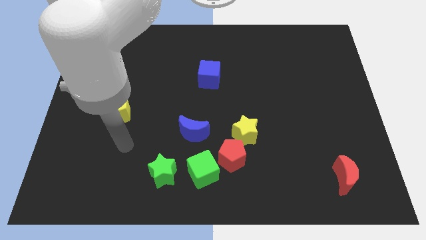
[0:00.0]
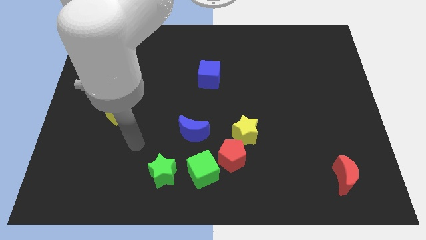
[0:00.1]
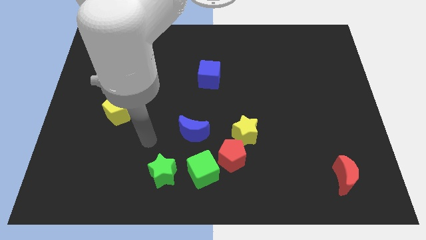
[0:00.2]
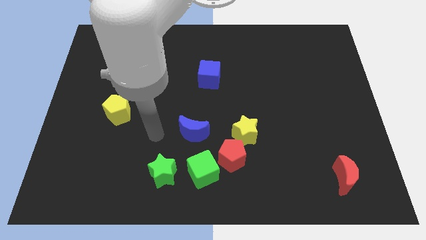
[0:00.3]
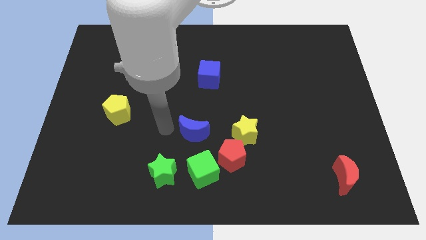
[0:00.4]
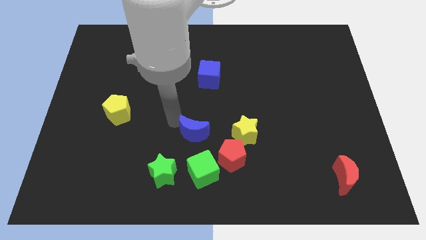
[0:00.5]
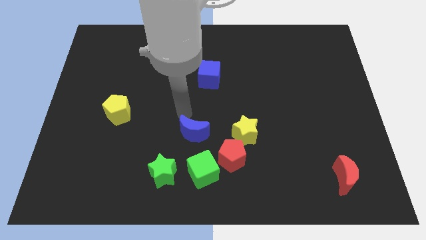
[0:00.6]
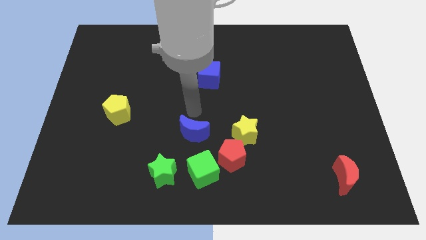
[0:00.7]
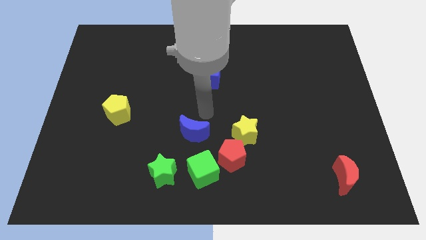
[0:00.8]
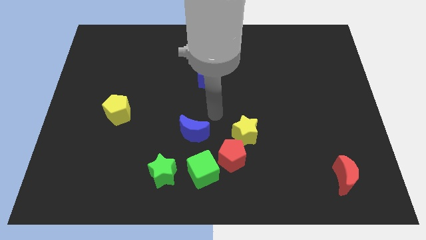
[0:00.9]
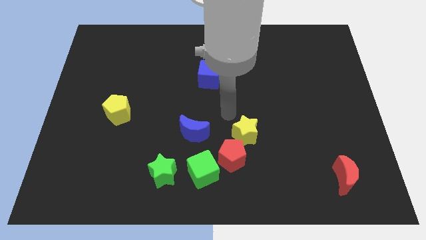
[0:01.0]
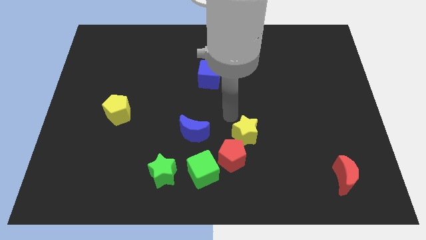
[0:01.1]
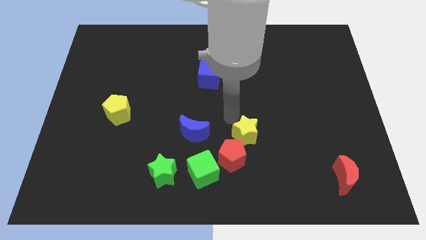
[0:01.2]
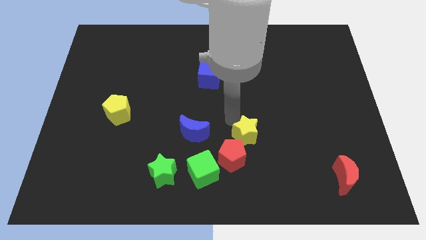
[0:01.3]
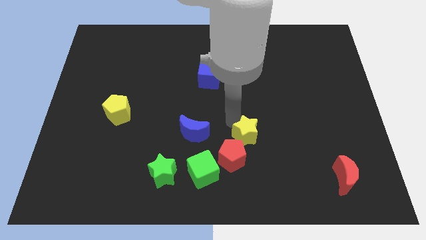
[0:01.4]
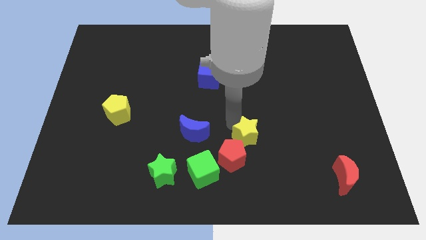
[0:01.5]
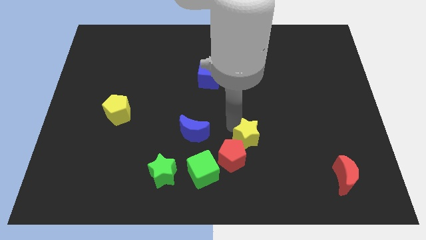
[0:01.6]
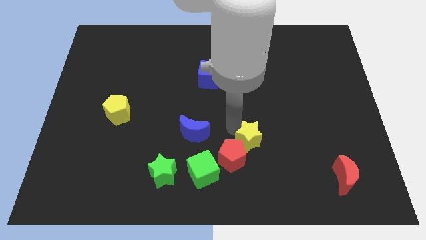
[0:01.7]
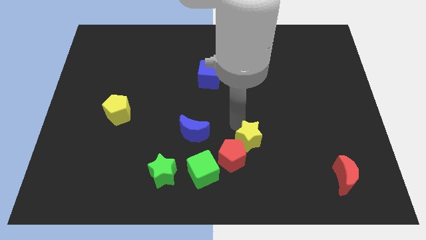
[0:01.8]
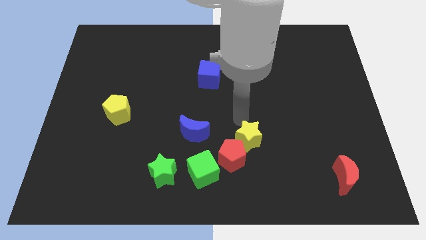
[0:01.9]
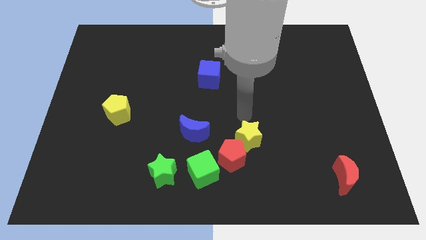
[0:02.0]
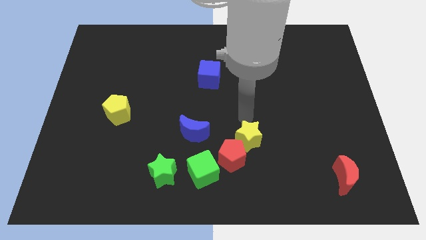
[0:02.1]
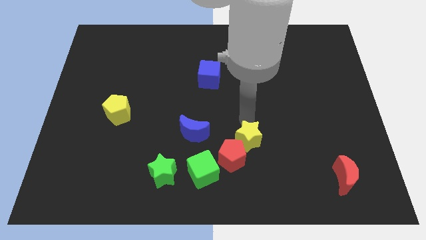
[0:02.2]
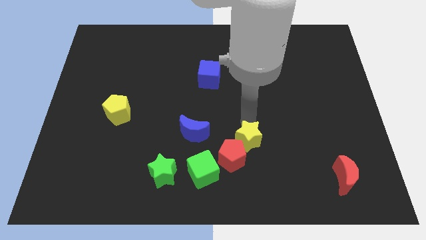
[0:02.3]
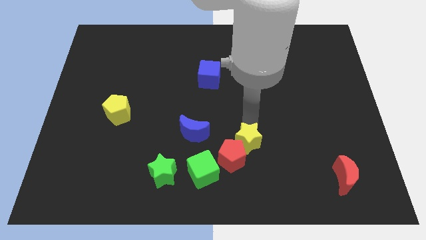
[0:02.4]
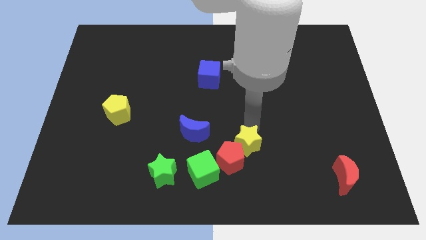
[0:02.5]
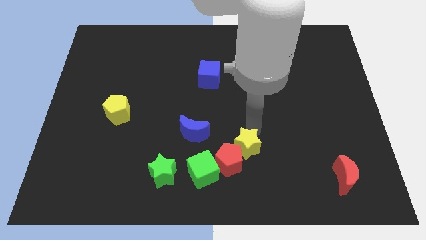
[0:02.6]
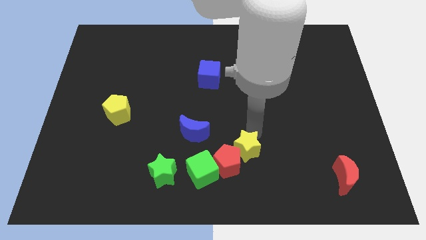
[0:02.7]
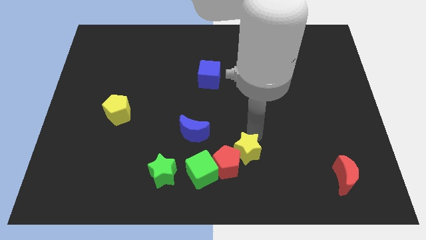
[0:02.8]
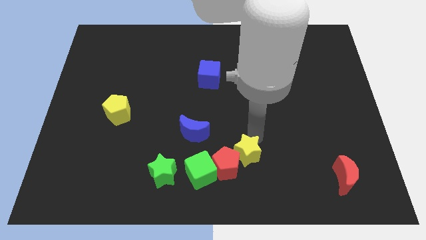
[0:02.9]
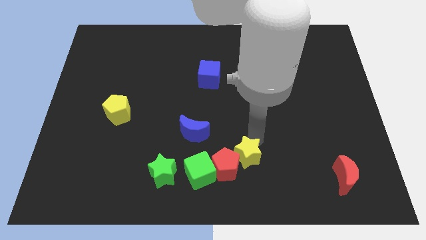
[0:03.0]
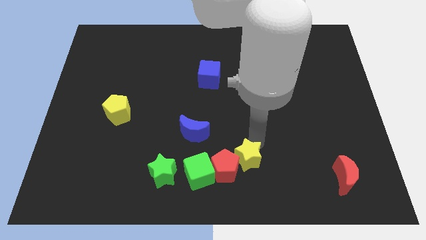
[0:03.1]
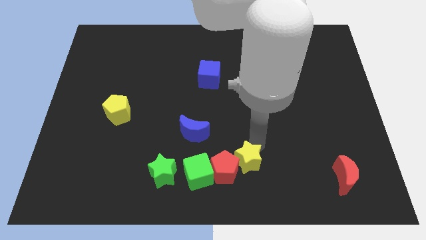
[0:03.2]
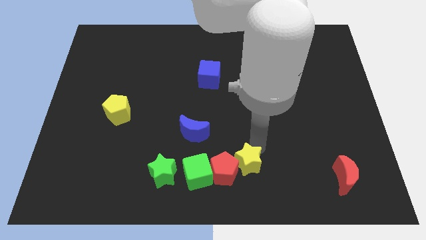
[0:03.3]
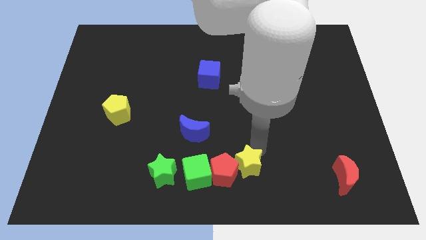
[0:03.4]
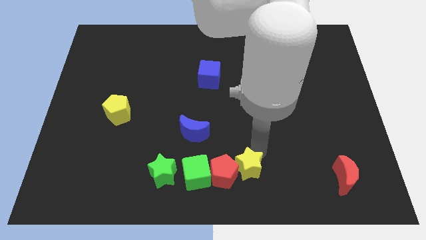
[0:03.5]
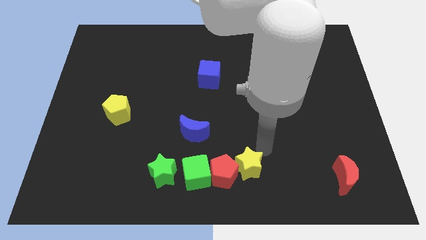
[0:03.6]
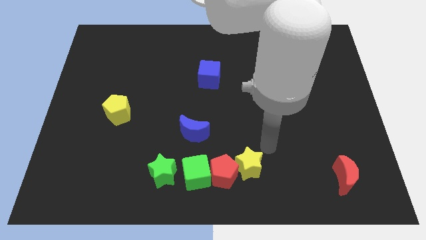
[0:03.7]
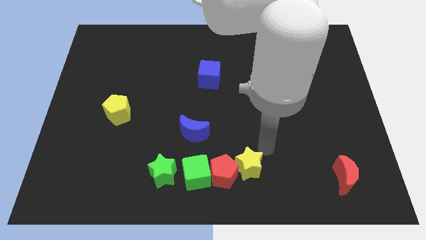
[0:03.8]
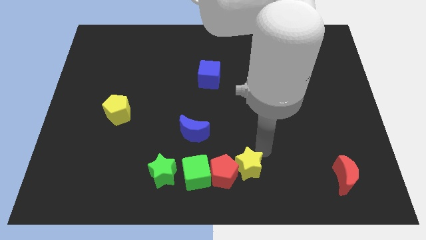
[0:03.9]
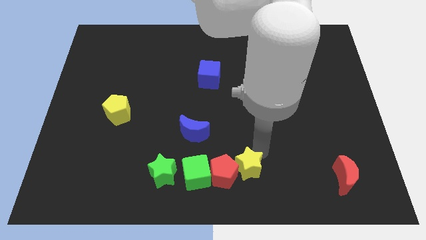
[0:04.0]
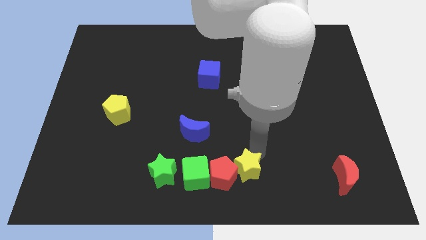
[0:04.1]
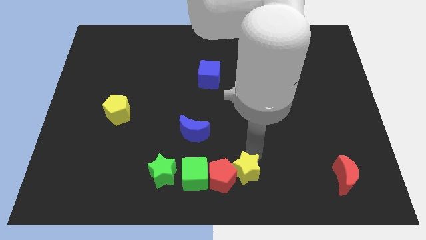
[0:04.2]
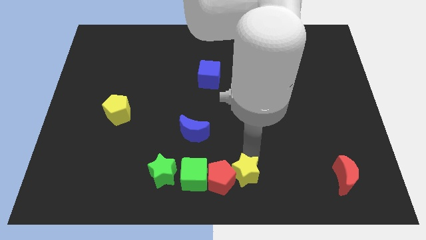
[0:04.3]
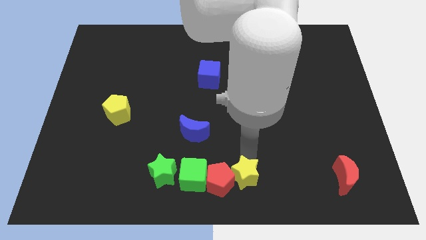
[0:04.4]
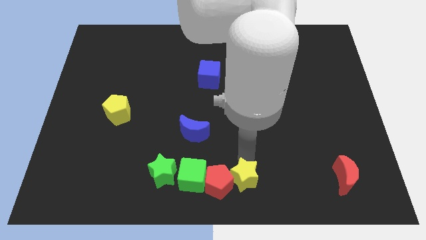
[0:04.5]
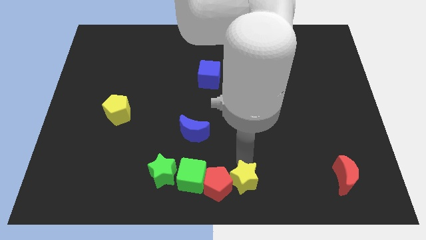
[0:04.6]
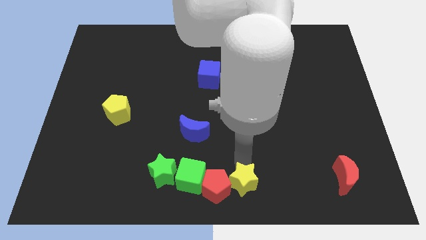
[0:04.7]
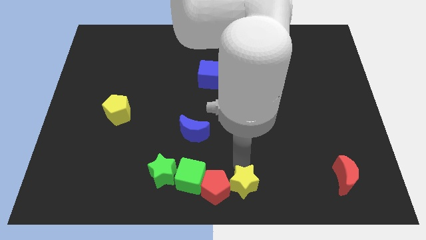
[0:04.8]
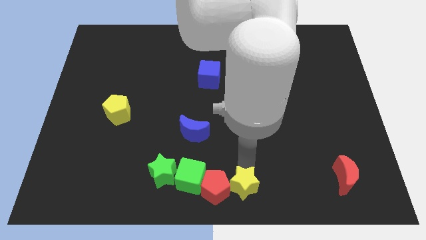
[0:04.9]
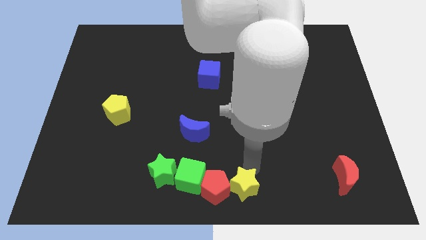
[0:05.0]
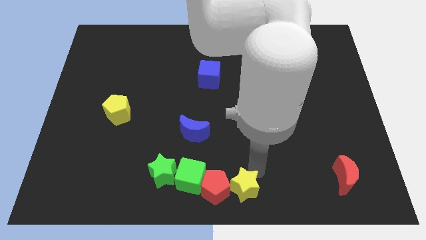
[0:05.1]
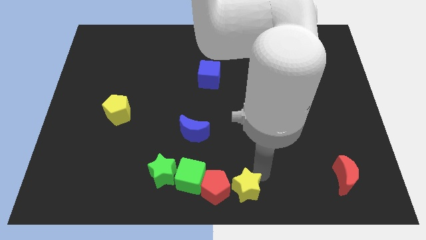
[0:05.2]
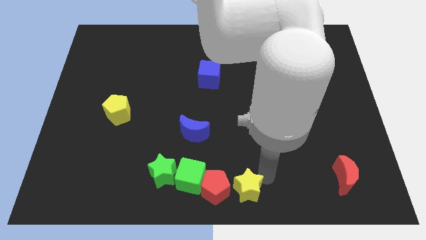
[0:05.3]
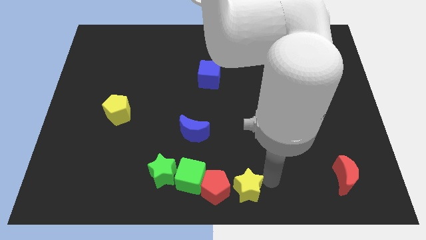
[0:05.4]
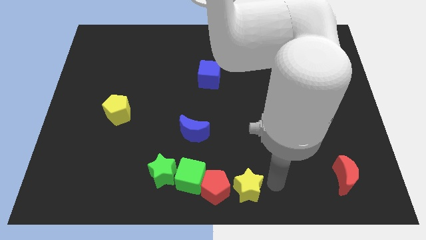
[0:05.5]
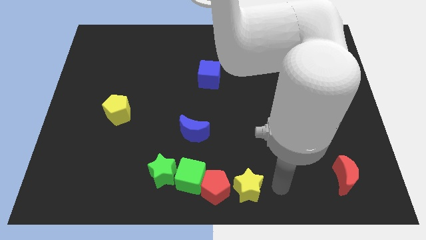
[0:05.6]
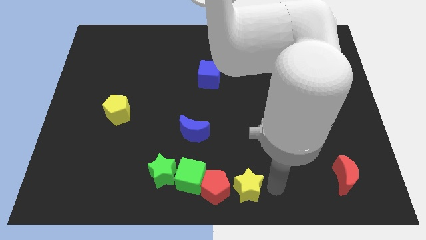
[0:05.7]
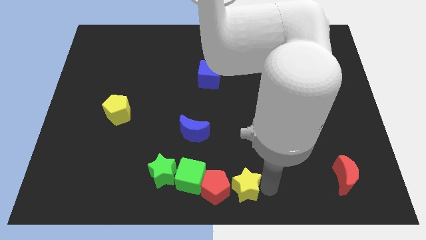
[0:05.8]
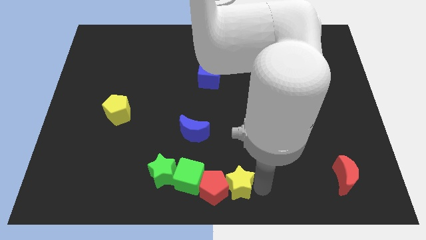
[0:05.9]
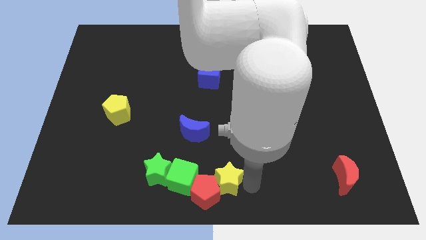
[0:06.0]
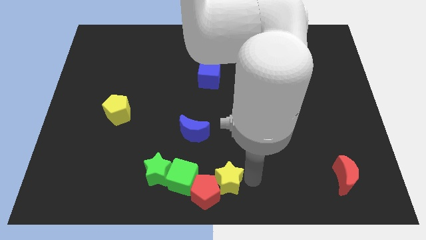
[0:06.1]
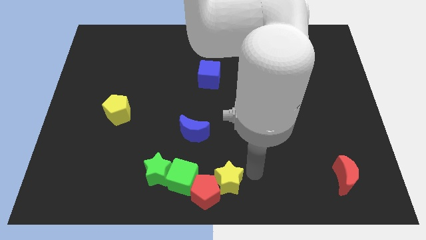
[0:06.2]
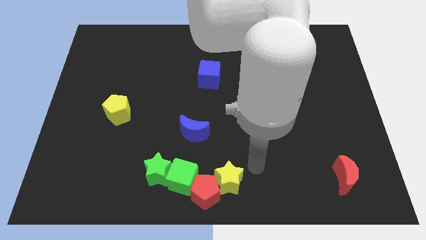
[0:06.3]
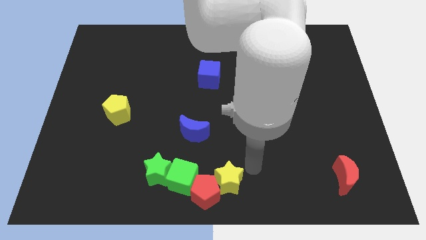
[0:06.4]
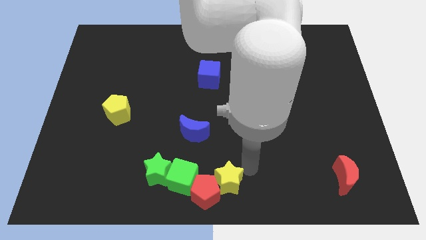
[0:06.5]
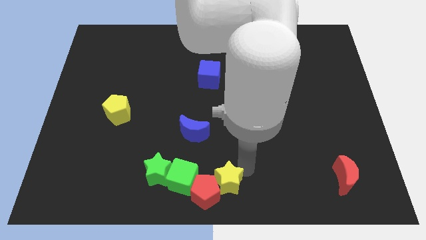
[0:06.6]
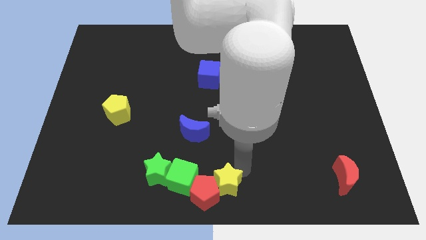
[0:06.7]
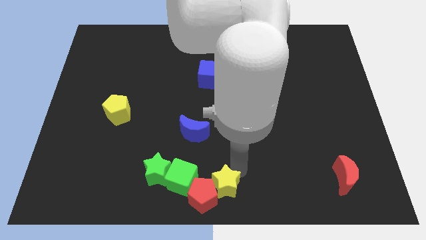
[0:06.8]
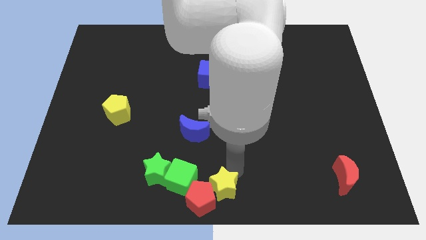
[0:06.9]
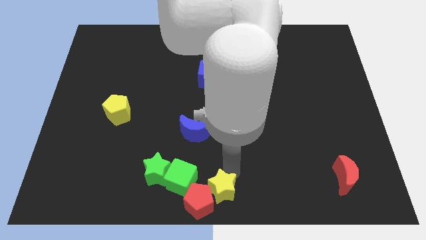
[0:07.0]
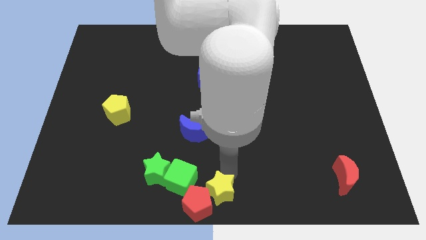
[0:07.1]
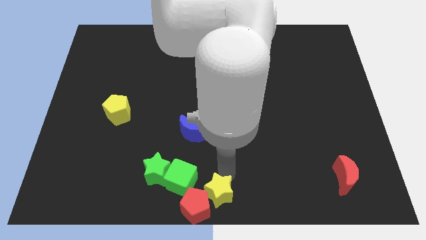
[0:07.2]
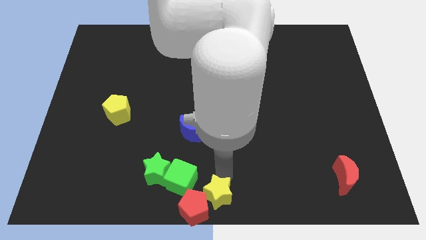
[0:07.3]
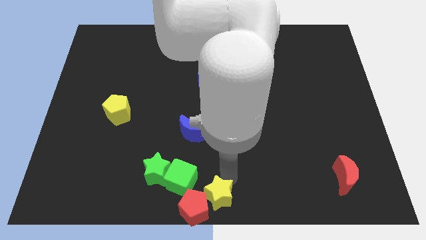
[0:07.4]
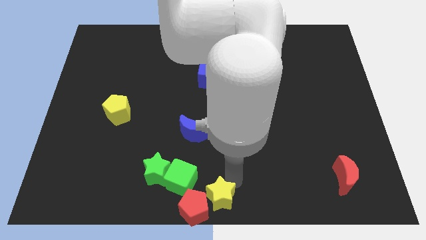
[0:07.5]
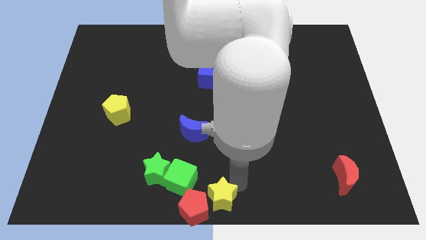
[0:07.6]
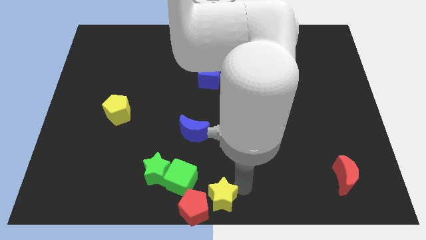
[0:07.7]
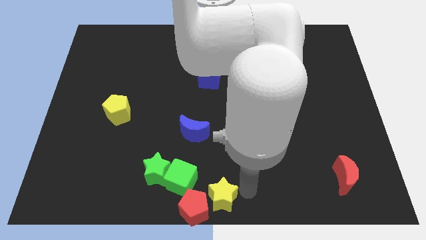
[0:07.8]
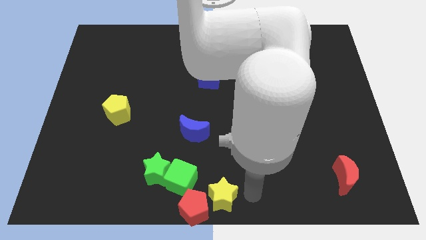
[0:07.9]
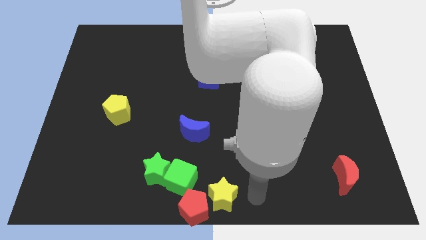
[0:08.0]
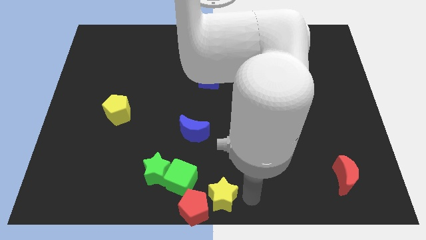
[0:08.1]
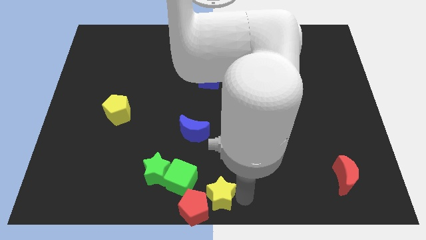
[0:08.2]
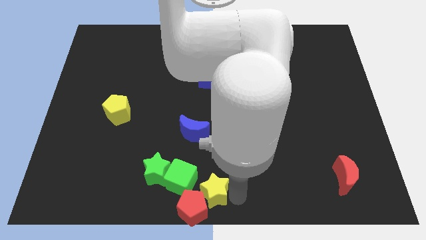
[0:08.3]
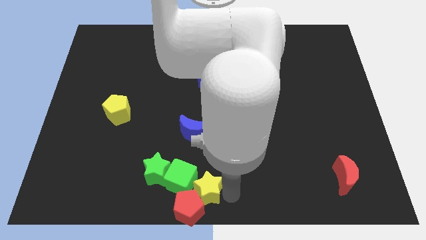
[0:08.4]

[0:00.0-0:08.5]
slide the yellow star to the bottom side of the blue moon
